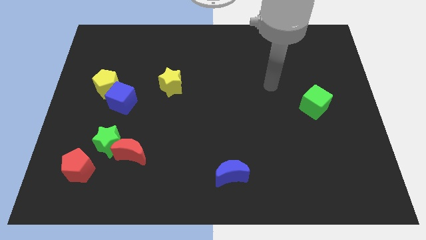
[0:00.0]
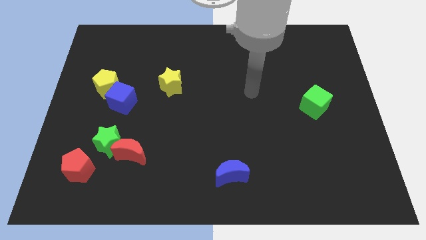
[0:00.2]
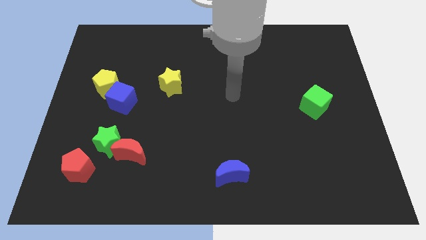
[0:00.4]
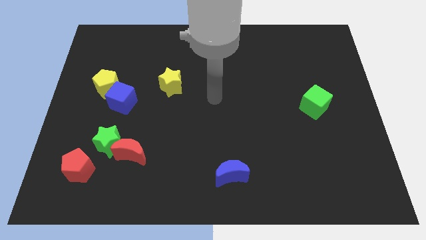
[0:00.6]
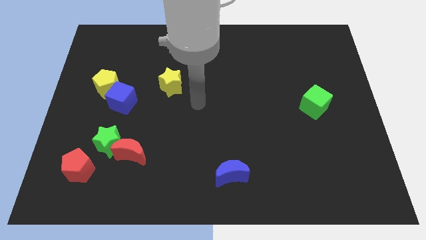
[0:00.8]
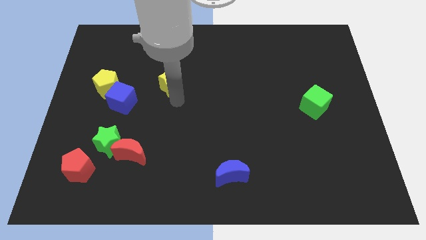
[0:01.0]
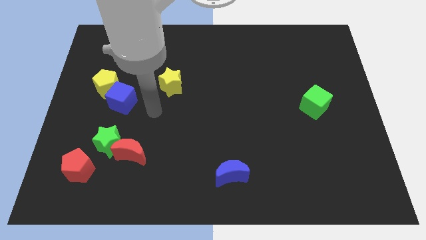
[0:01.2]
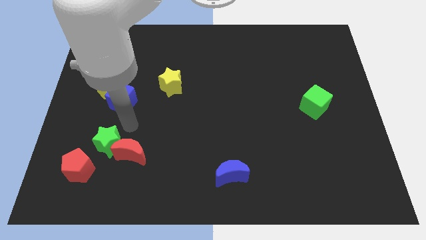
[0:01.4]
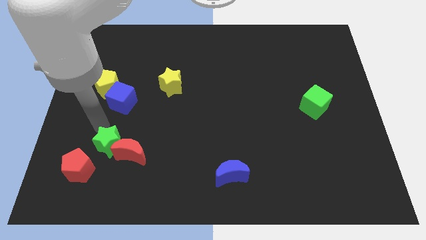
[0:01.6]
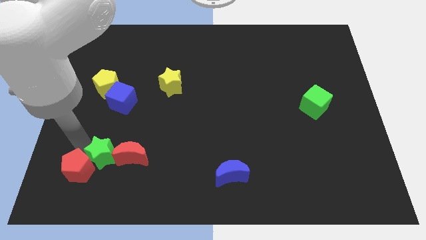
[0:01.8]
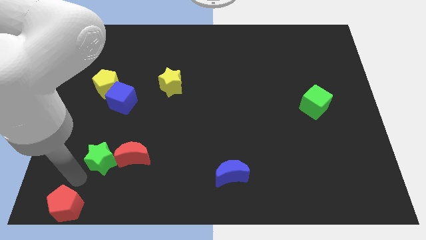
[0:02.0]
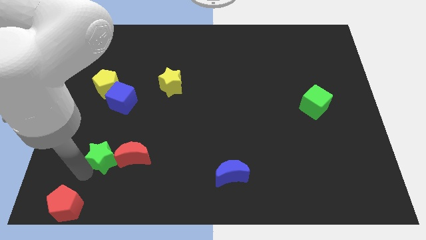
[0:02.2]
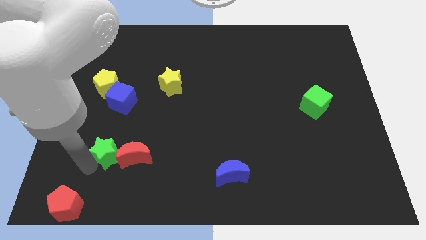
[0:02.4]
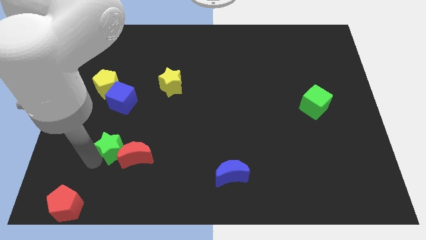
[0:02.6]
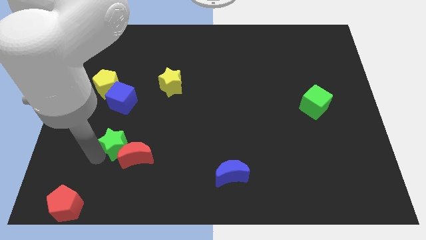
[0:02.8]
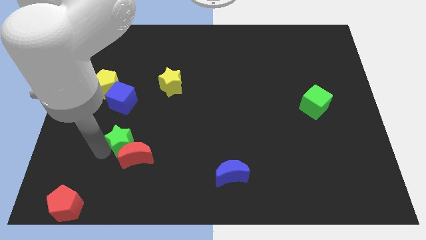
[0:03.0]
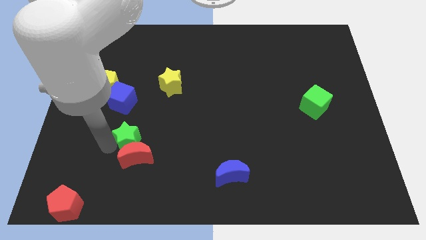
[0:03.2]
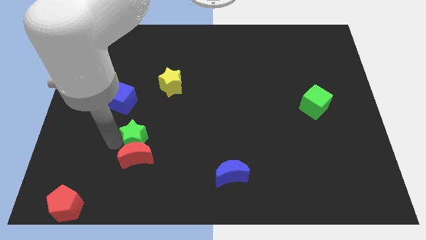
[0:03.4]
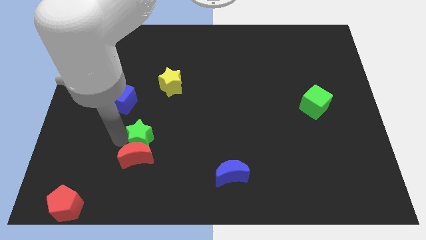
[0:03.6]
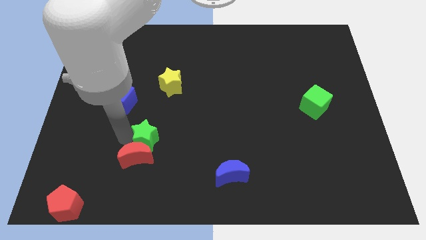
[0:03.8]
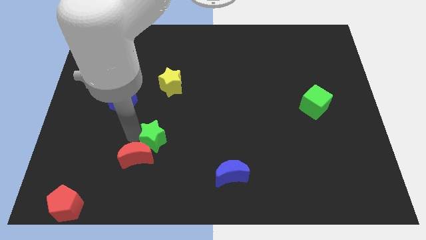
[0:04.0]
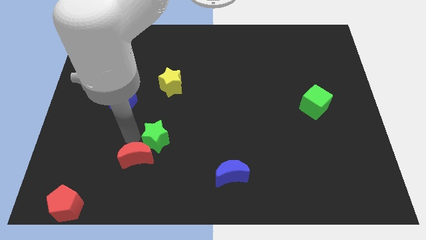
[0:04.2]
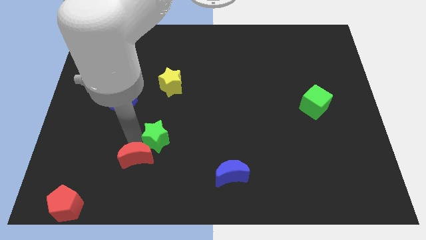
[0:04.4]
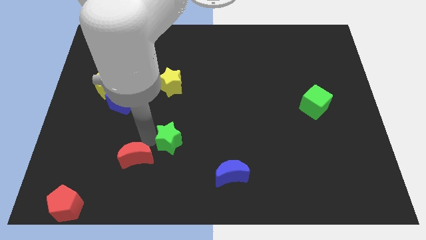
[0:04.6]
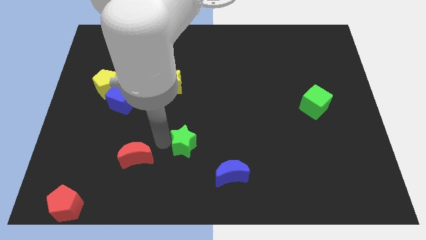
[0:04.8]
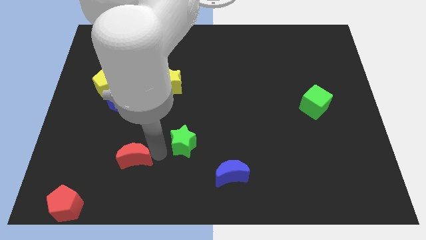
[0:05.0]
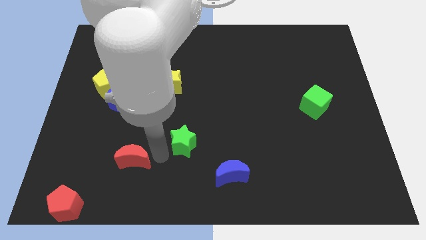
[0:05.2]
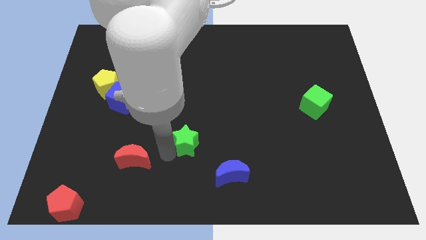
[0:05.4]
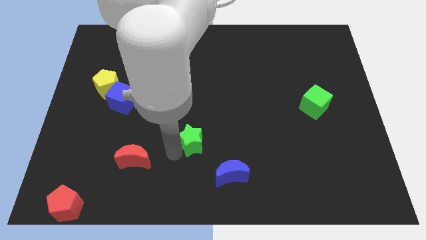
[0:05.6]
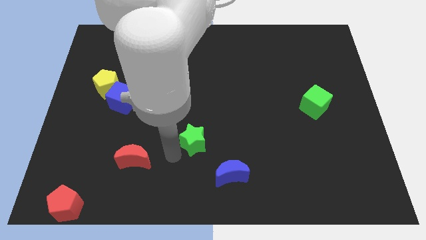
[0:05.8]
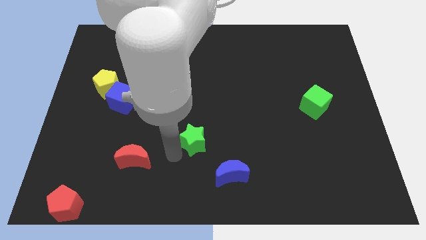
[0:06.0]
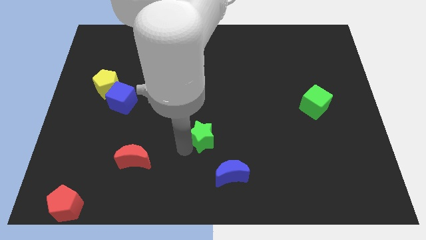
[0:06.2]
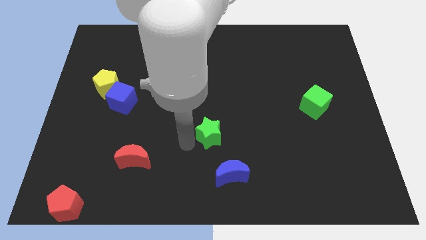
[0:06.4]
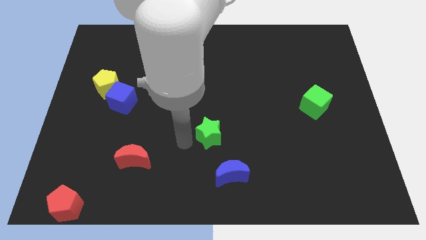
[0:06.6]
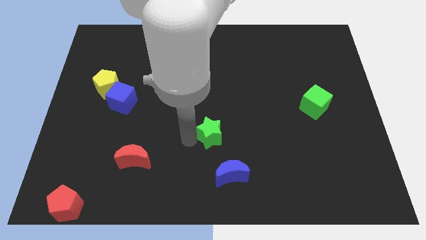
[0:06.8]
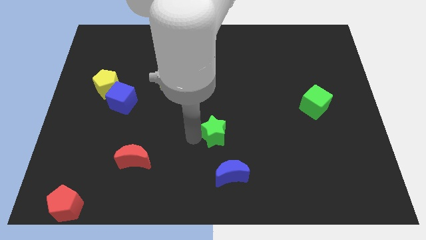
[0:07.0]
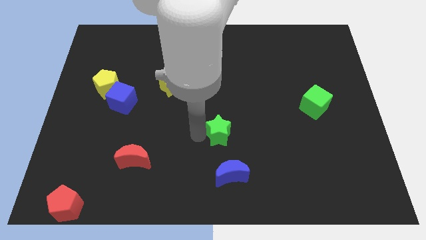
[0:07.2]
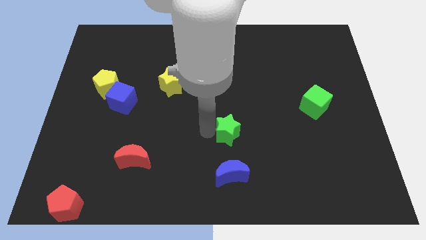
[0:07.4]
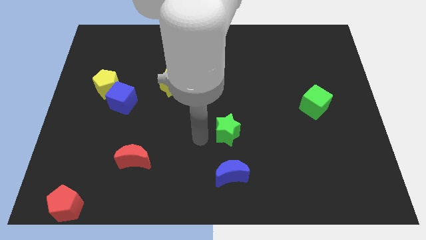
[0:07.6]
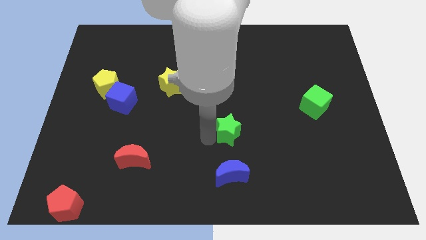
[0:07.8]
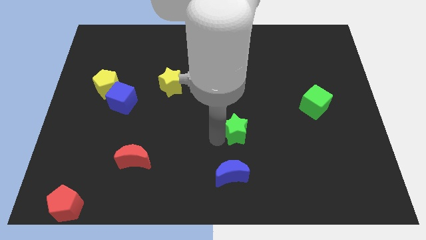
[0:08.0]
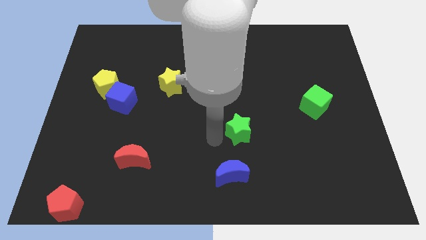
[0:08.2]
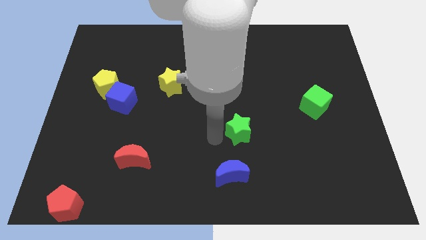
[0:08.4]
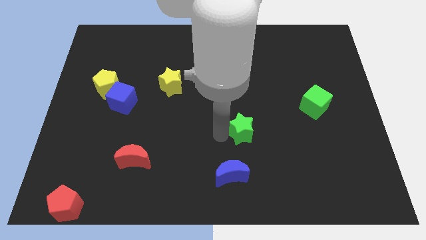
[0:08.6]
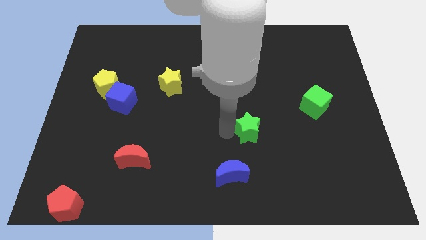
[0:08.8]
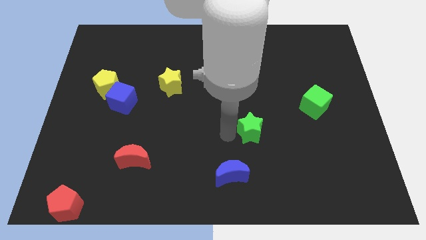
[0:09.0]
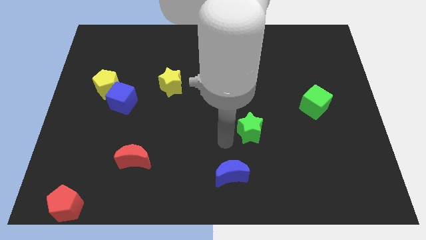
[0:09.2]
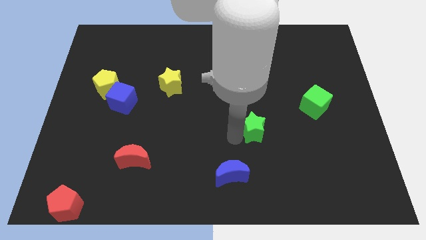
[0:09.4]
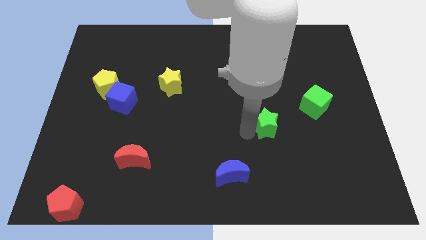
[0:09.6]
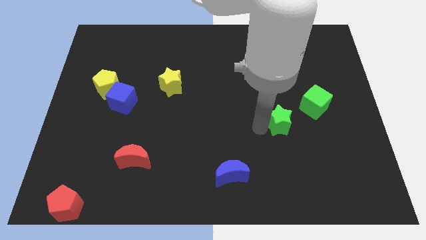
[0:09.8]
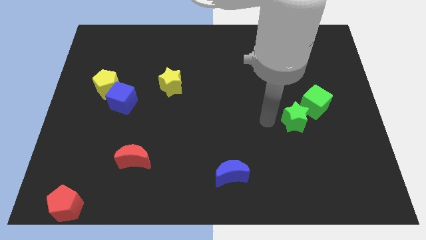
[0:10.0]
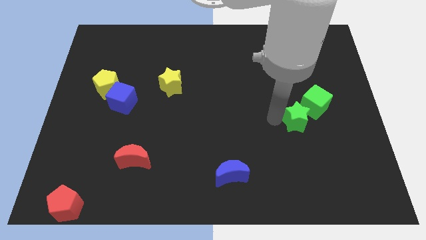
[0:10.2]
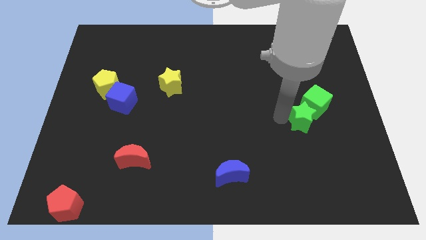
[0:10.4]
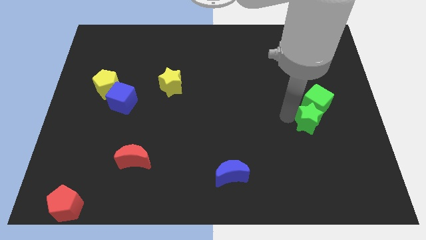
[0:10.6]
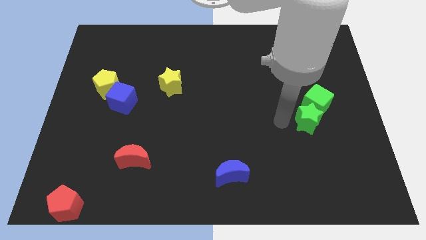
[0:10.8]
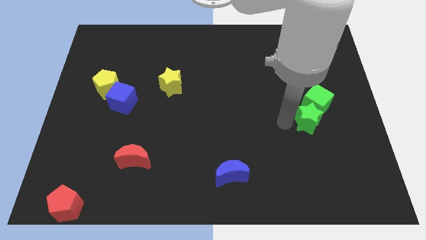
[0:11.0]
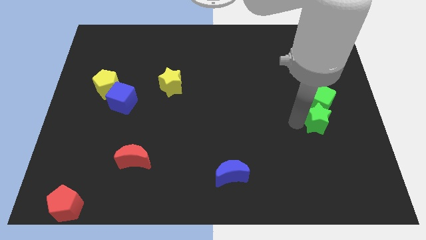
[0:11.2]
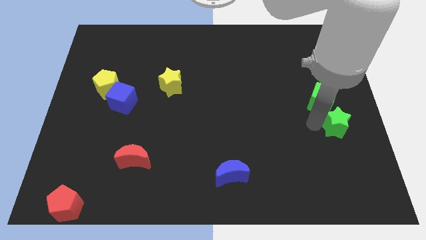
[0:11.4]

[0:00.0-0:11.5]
move the green star to the center right
